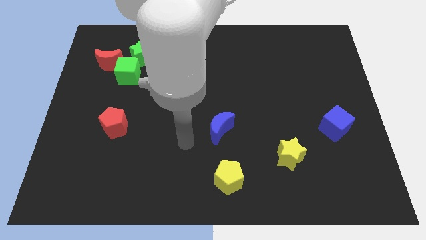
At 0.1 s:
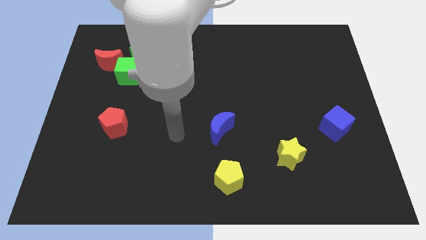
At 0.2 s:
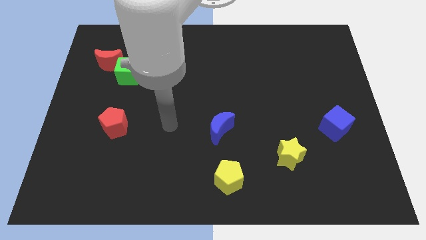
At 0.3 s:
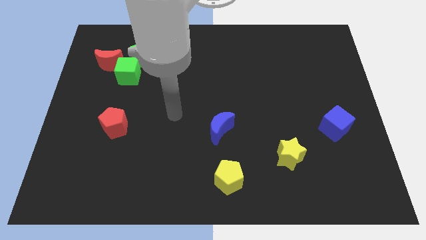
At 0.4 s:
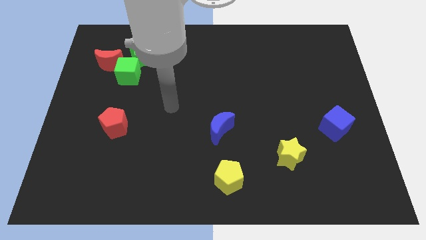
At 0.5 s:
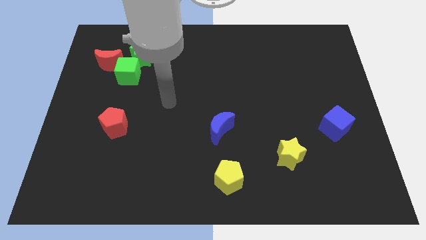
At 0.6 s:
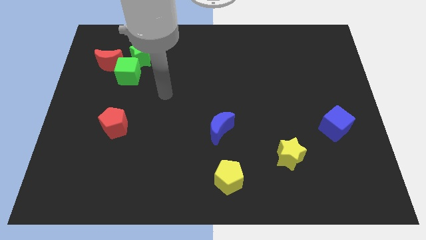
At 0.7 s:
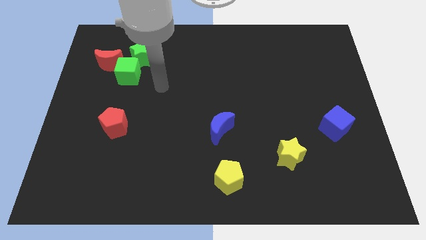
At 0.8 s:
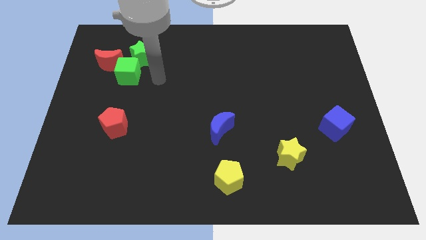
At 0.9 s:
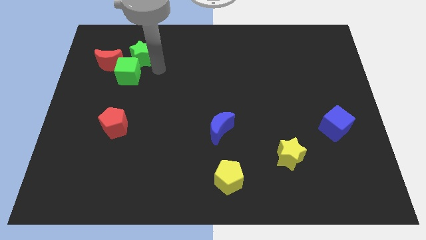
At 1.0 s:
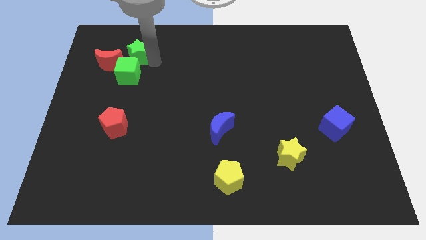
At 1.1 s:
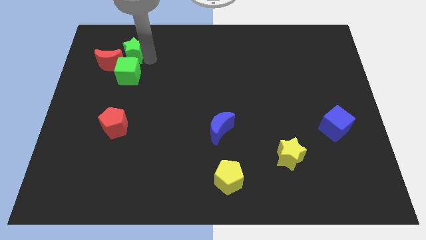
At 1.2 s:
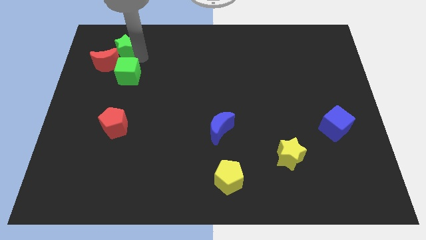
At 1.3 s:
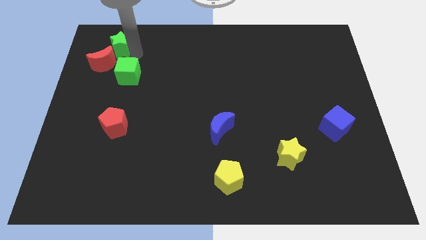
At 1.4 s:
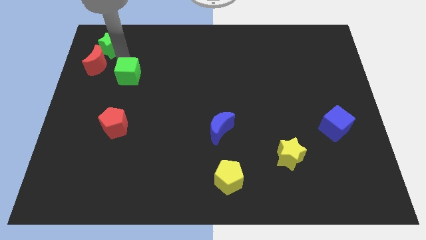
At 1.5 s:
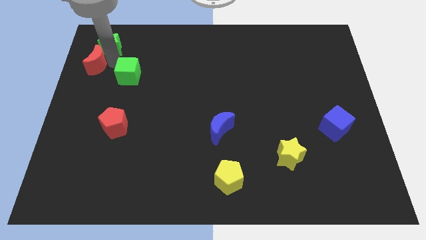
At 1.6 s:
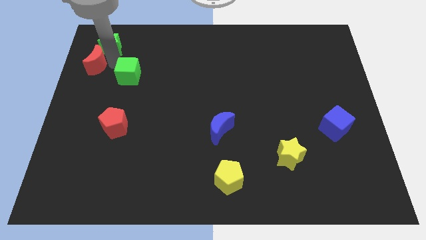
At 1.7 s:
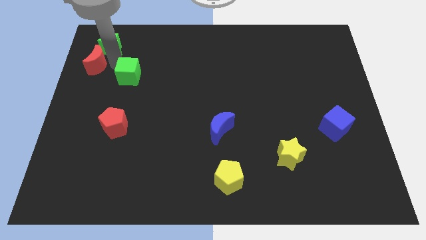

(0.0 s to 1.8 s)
separate the green cube from the green star and red moon

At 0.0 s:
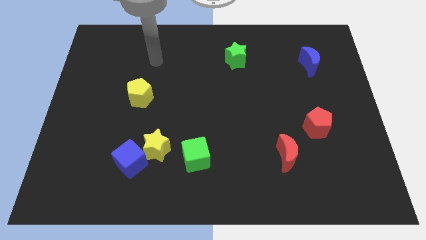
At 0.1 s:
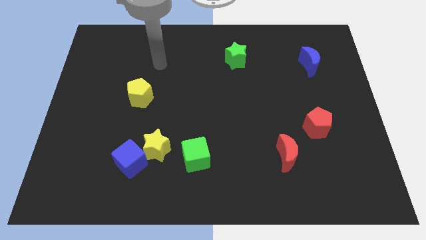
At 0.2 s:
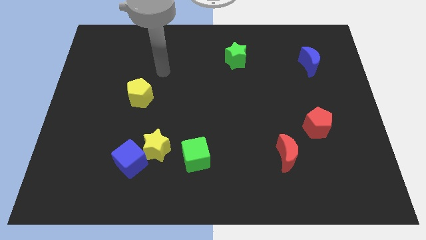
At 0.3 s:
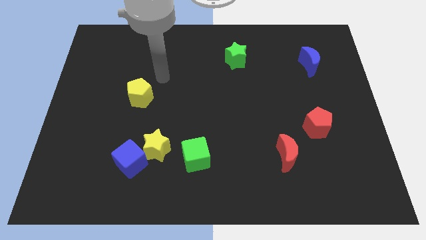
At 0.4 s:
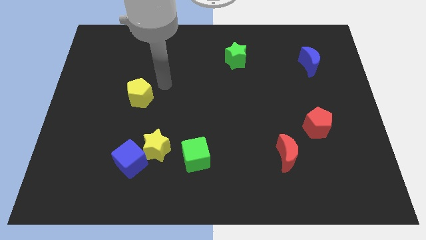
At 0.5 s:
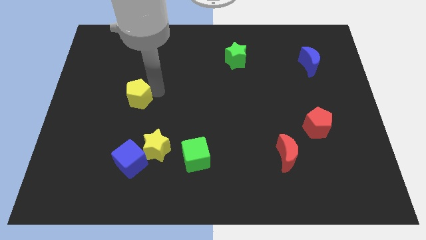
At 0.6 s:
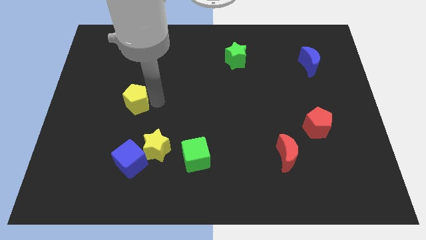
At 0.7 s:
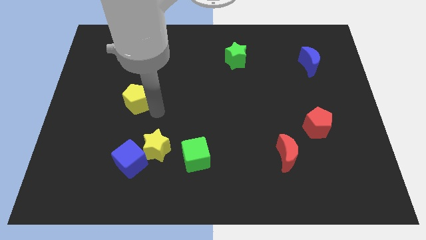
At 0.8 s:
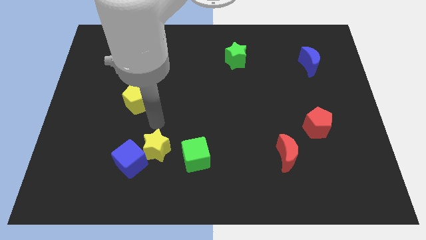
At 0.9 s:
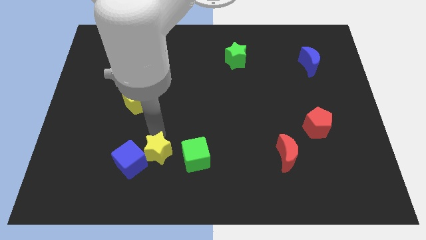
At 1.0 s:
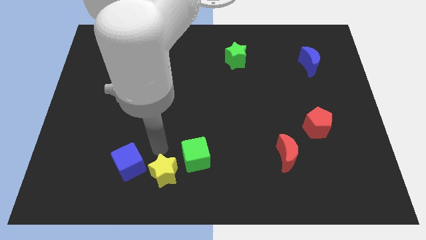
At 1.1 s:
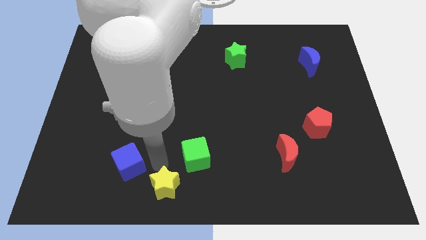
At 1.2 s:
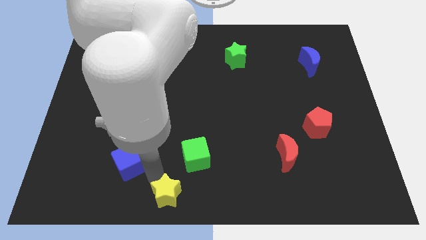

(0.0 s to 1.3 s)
move the blue cube away from the yellow star

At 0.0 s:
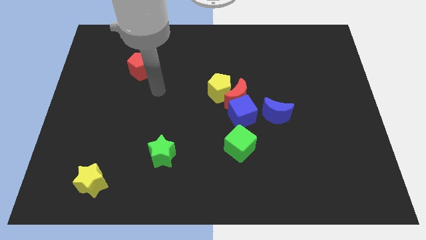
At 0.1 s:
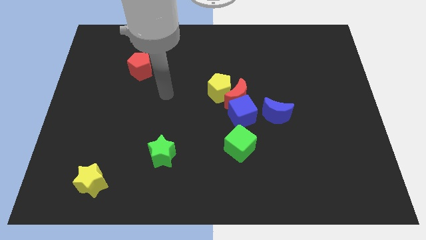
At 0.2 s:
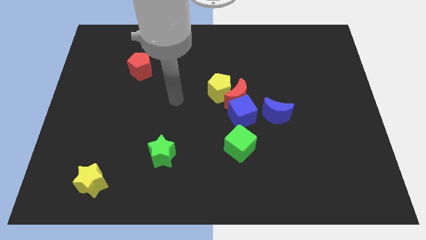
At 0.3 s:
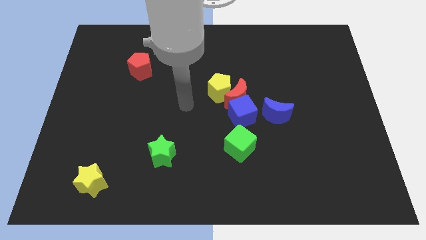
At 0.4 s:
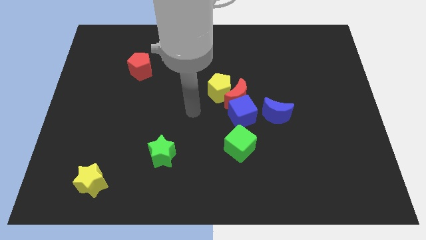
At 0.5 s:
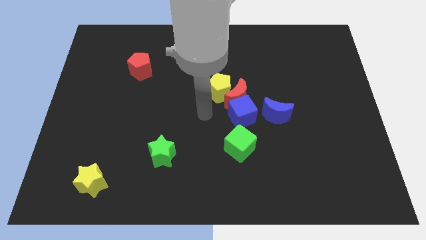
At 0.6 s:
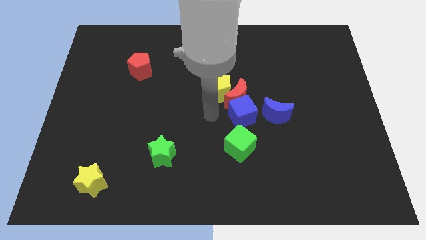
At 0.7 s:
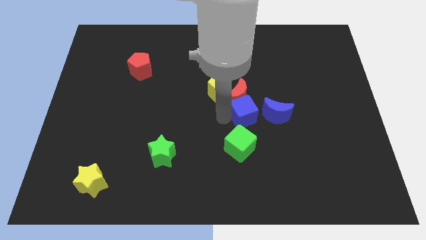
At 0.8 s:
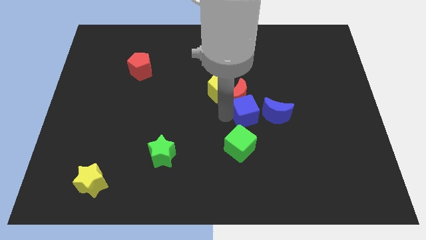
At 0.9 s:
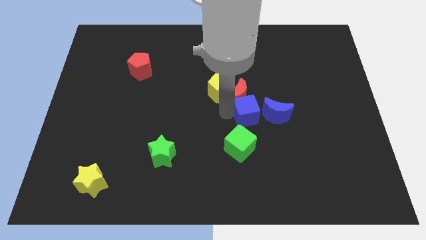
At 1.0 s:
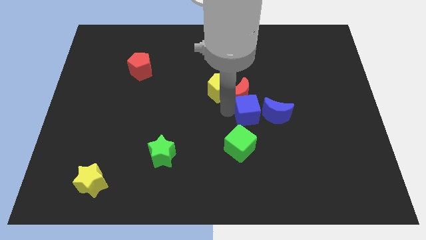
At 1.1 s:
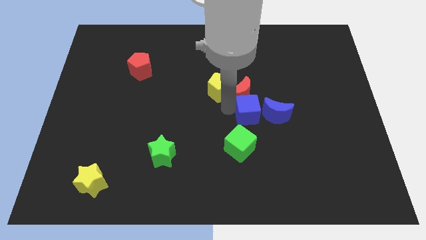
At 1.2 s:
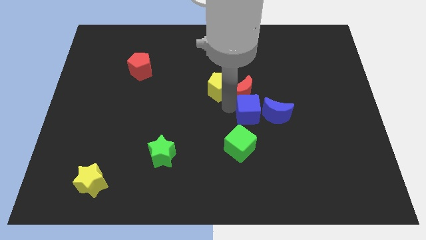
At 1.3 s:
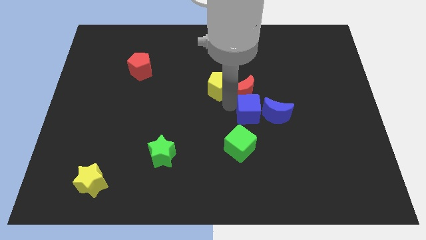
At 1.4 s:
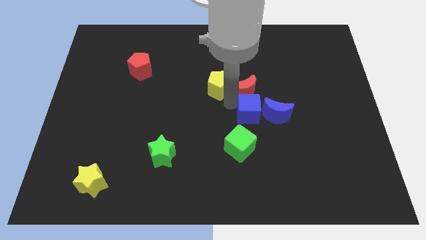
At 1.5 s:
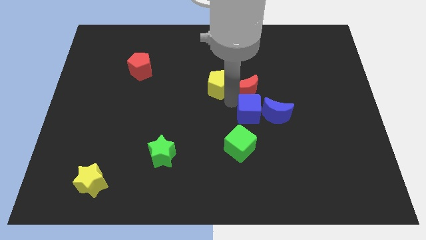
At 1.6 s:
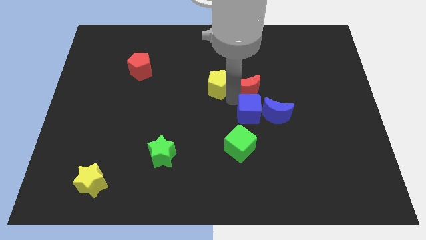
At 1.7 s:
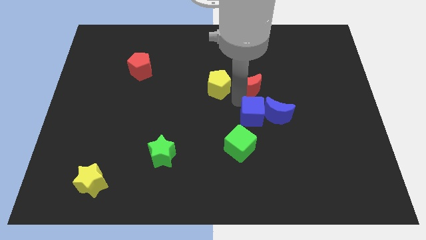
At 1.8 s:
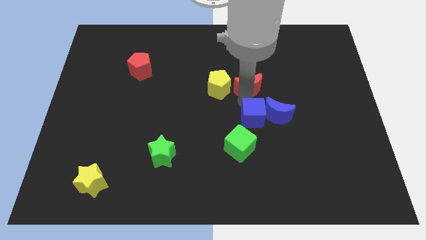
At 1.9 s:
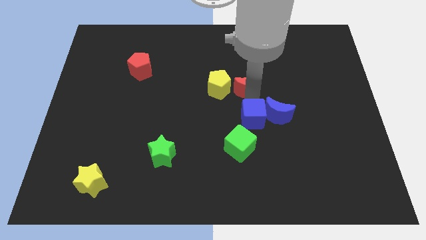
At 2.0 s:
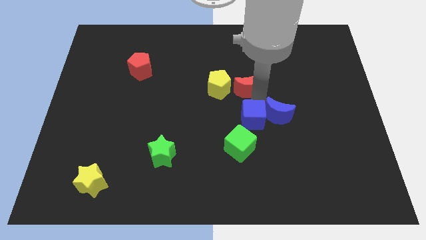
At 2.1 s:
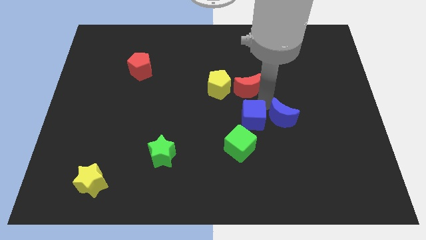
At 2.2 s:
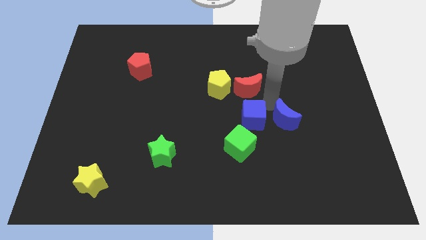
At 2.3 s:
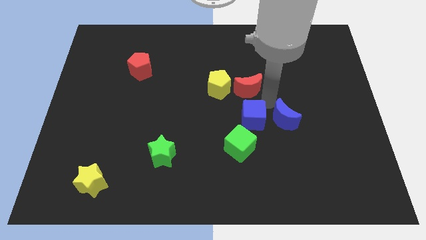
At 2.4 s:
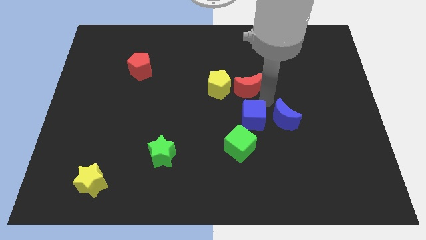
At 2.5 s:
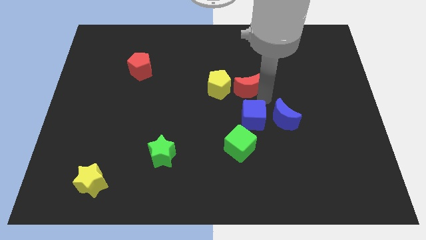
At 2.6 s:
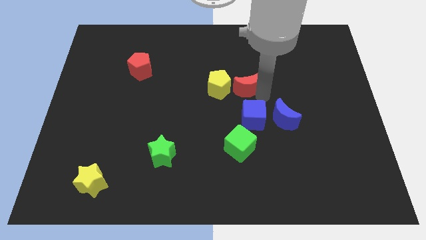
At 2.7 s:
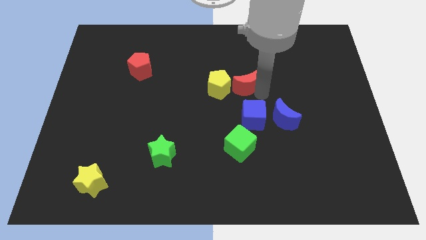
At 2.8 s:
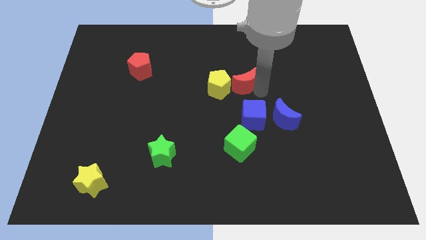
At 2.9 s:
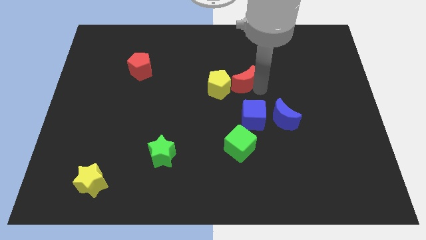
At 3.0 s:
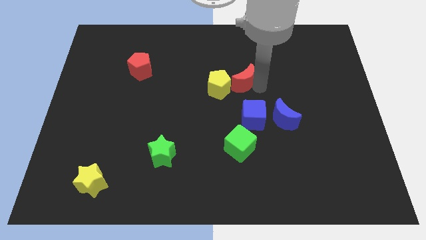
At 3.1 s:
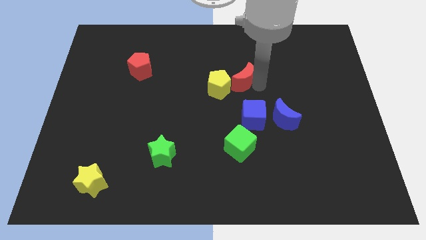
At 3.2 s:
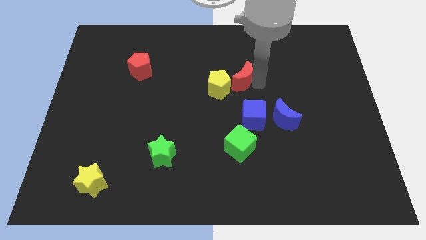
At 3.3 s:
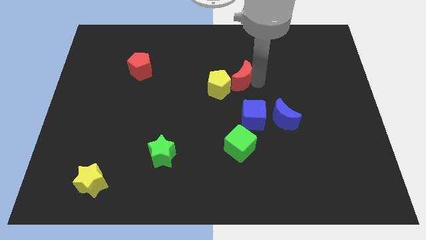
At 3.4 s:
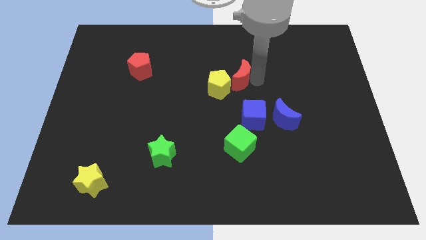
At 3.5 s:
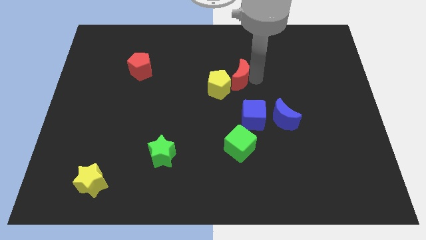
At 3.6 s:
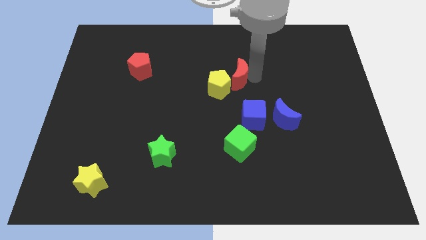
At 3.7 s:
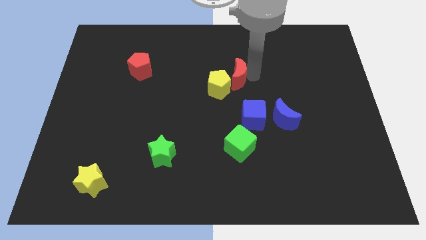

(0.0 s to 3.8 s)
move the red moon away from the blue cube, yellow pentagon, and blue moon

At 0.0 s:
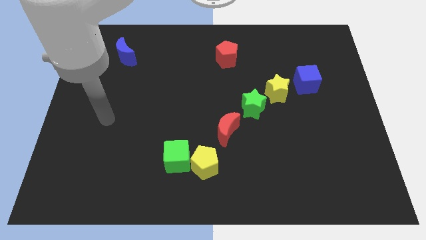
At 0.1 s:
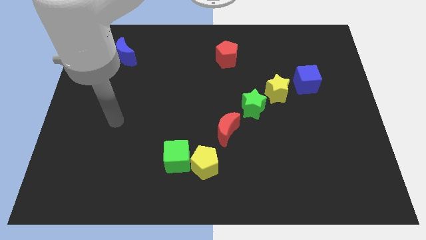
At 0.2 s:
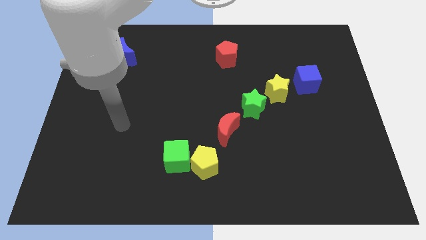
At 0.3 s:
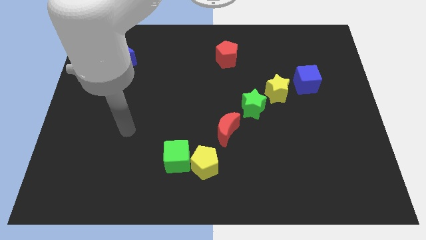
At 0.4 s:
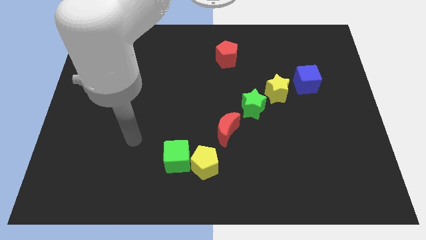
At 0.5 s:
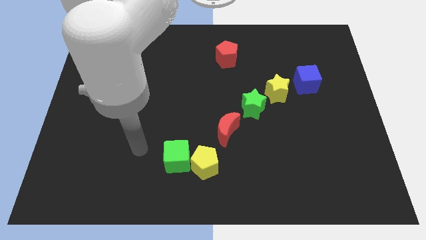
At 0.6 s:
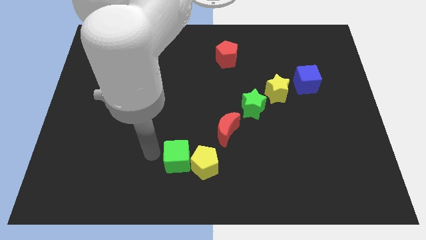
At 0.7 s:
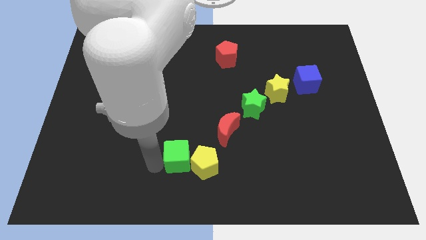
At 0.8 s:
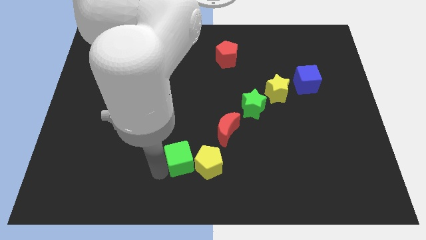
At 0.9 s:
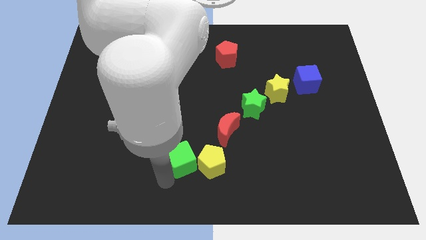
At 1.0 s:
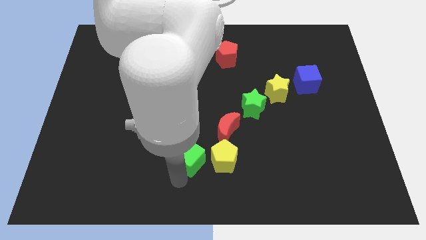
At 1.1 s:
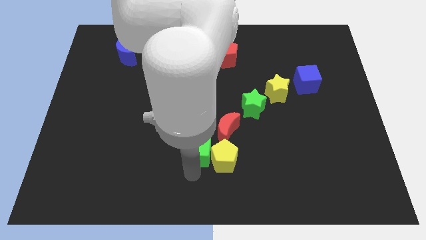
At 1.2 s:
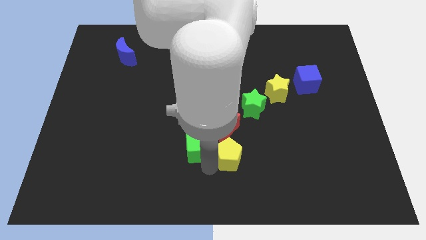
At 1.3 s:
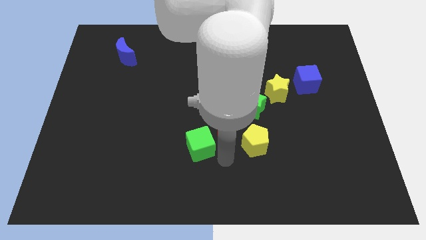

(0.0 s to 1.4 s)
separate the green cube from the yellow pentagon

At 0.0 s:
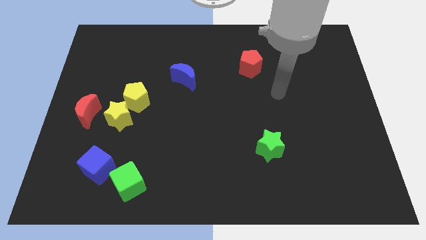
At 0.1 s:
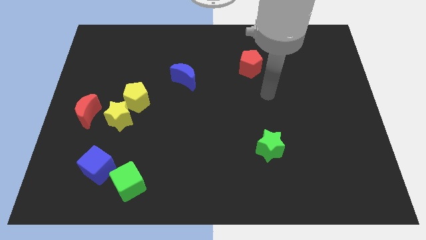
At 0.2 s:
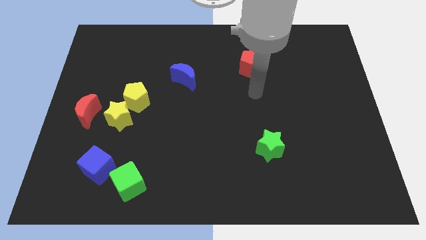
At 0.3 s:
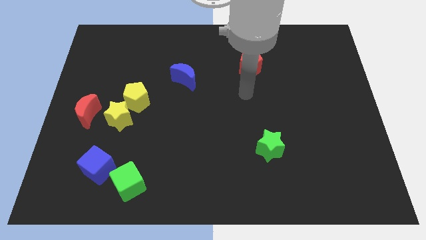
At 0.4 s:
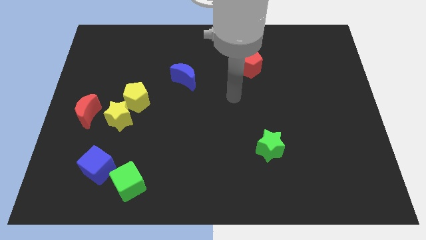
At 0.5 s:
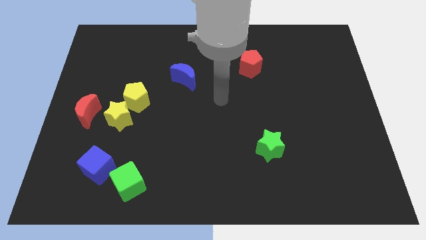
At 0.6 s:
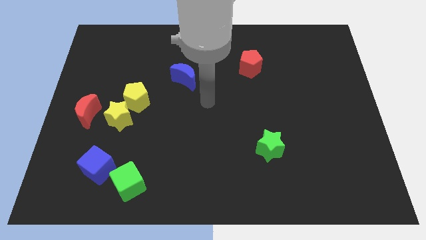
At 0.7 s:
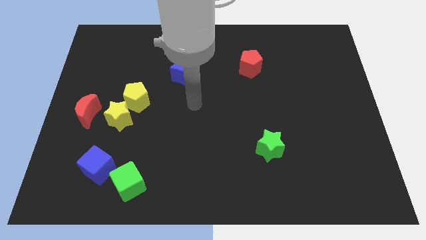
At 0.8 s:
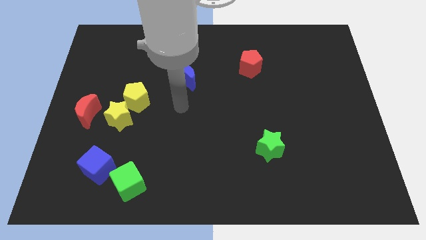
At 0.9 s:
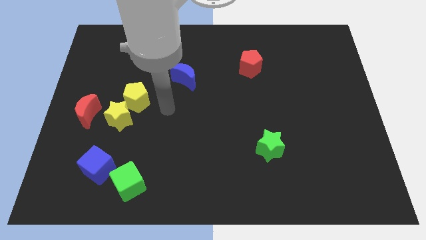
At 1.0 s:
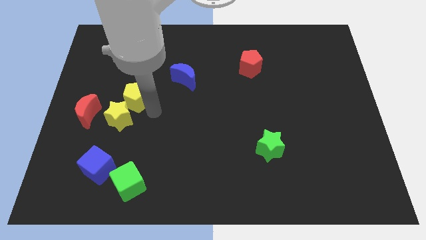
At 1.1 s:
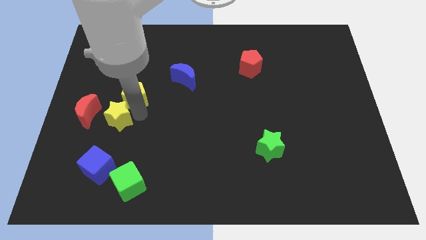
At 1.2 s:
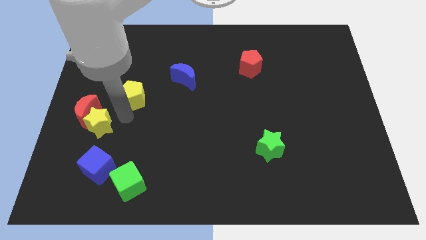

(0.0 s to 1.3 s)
move the yellow pentagon away from the yellow star
